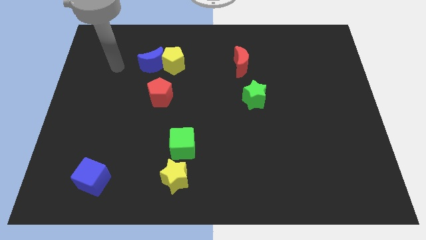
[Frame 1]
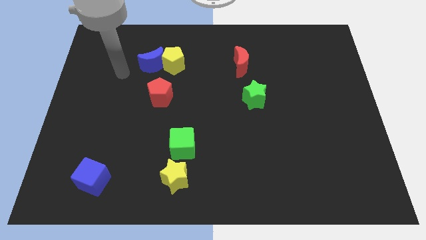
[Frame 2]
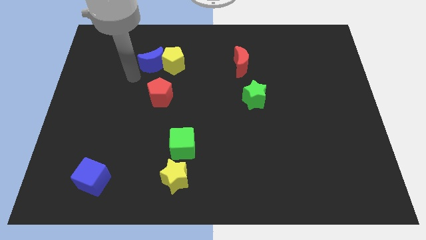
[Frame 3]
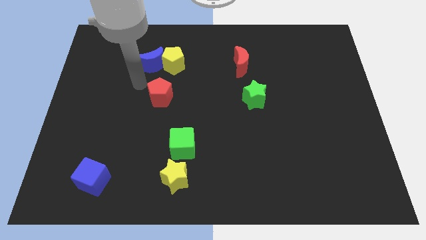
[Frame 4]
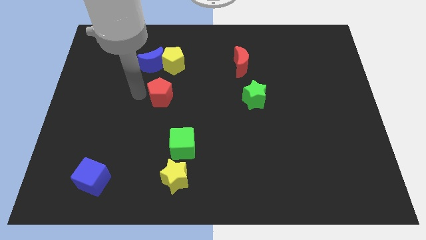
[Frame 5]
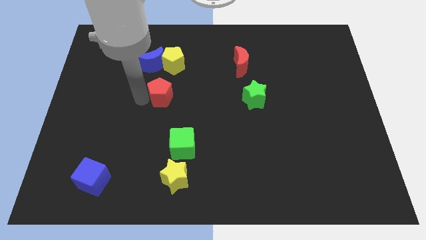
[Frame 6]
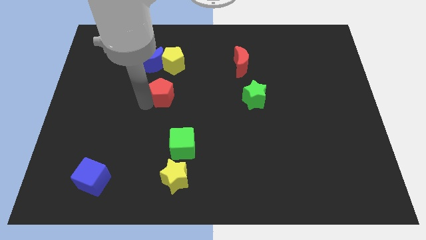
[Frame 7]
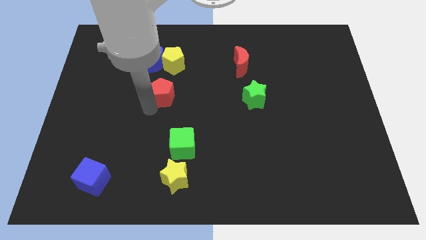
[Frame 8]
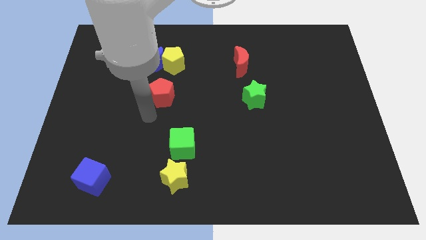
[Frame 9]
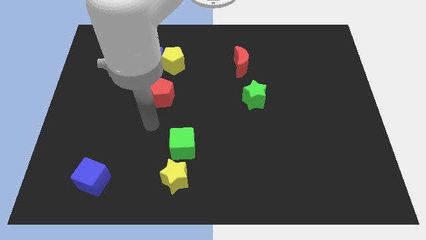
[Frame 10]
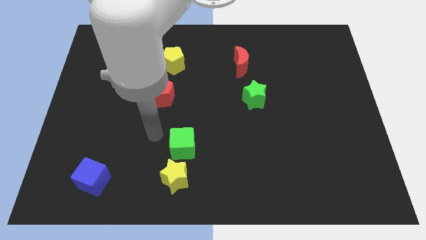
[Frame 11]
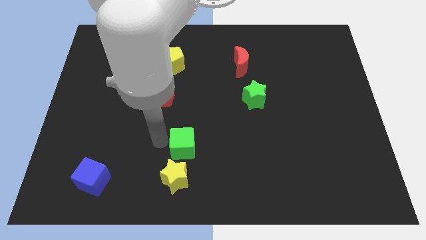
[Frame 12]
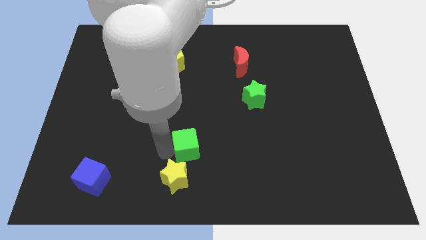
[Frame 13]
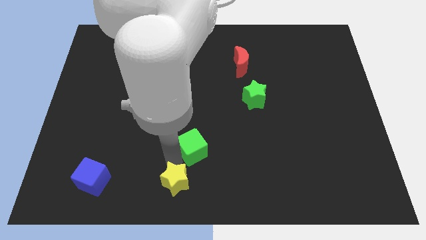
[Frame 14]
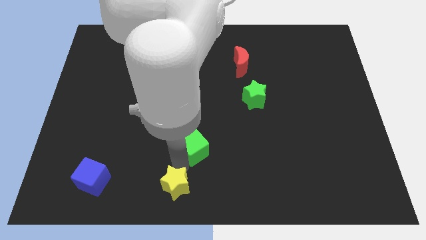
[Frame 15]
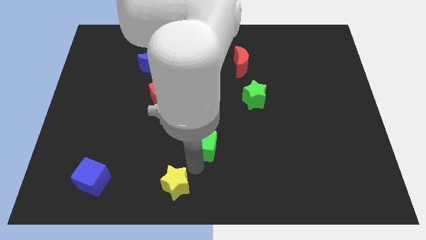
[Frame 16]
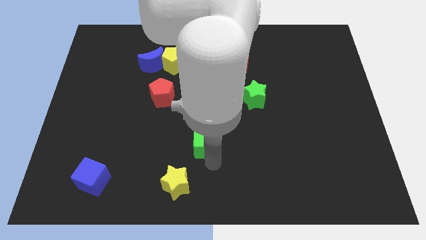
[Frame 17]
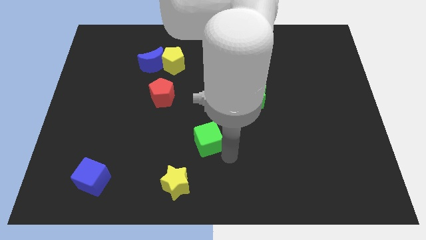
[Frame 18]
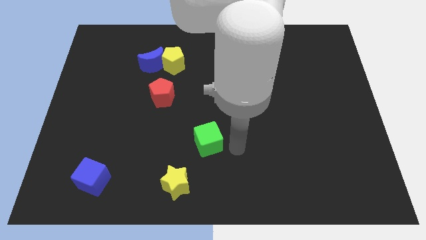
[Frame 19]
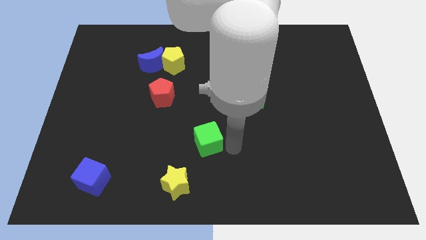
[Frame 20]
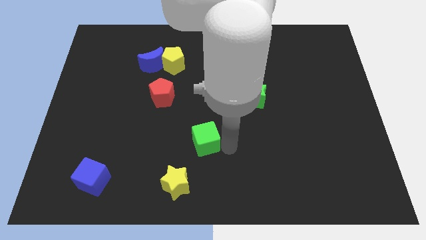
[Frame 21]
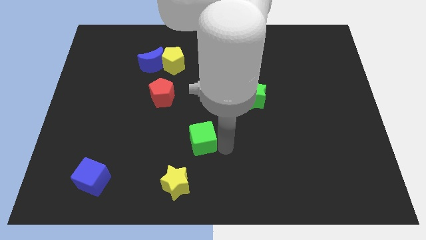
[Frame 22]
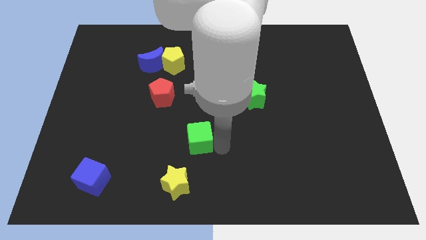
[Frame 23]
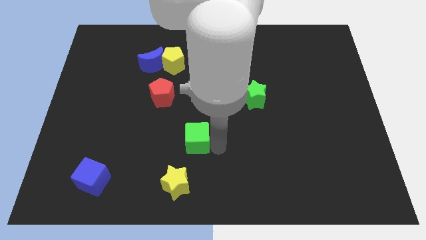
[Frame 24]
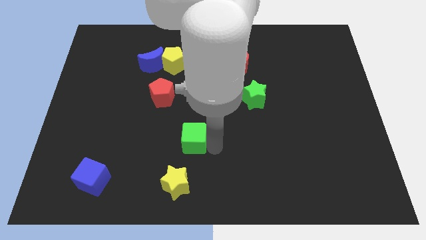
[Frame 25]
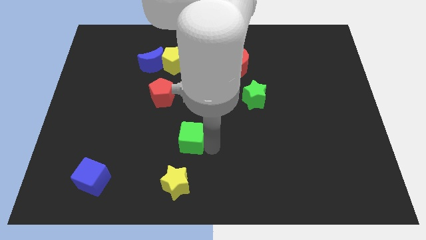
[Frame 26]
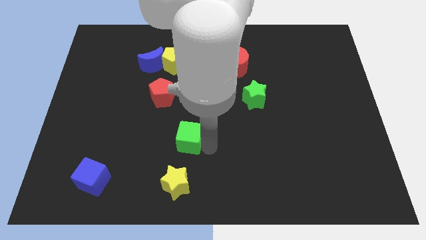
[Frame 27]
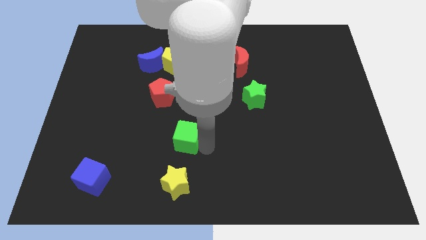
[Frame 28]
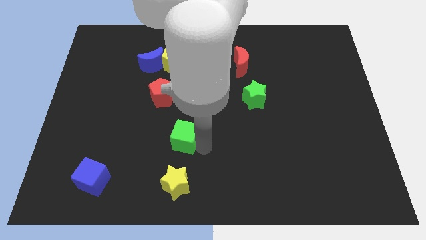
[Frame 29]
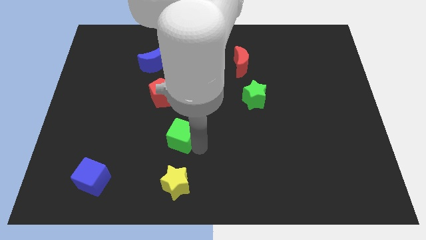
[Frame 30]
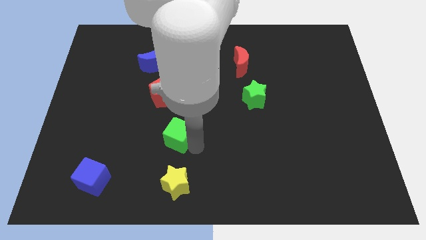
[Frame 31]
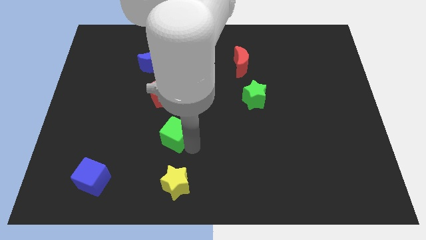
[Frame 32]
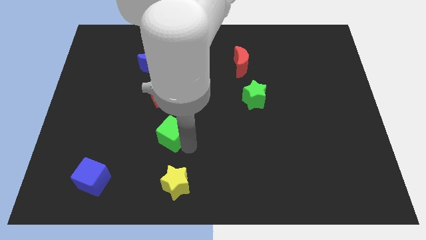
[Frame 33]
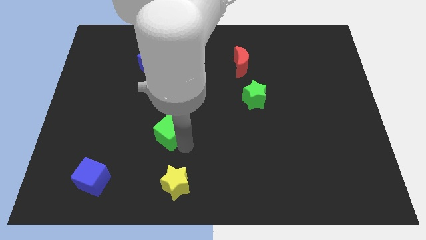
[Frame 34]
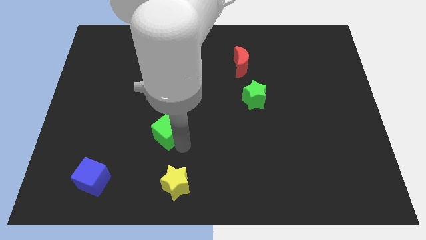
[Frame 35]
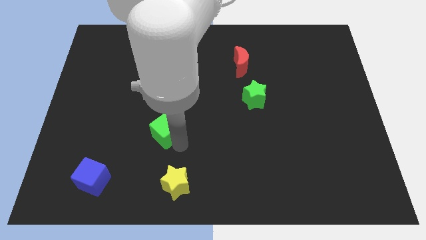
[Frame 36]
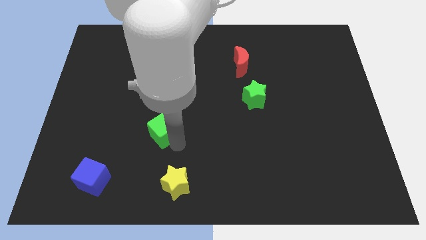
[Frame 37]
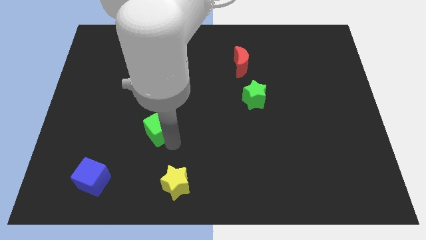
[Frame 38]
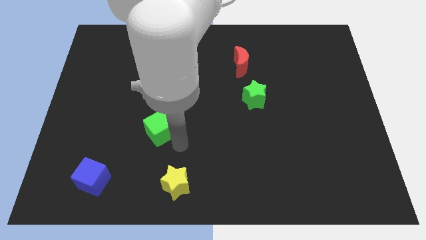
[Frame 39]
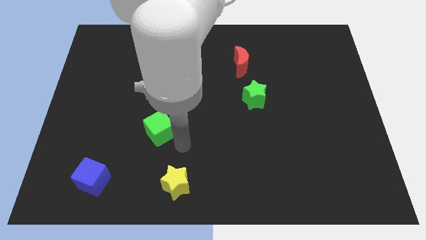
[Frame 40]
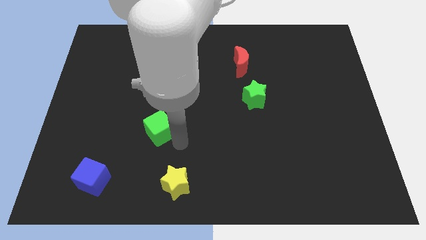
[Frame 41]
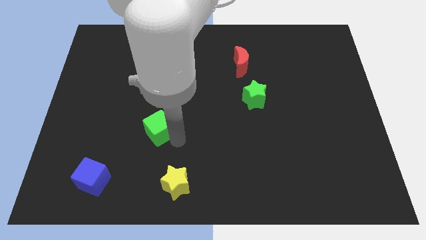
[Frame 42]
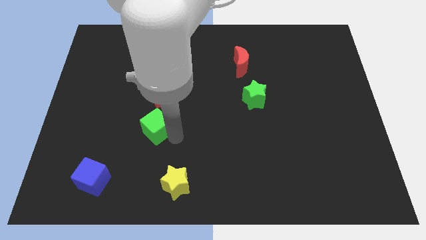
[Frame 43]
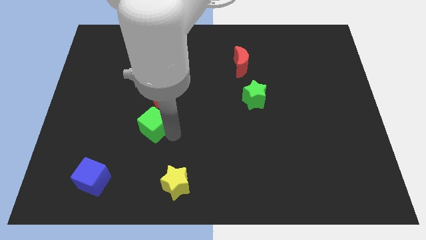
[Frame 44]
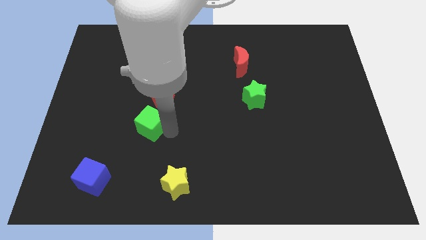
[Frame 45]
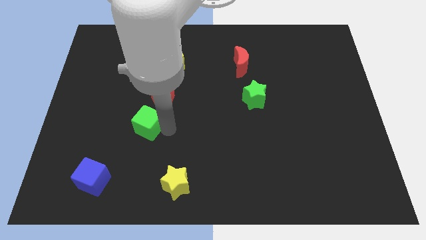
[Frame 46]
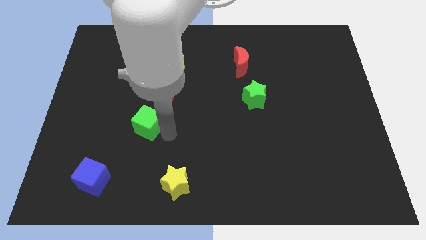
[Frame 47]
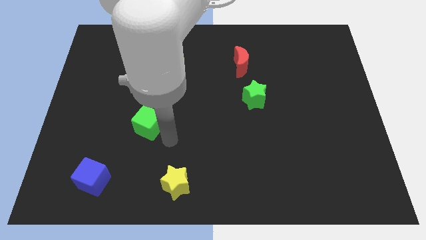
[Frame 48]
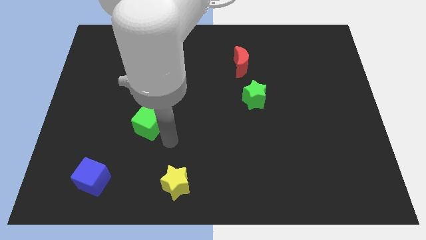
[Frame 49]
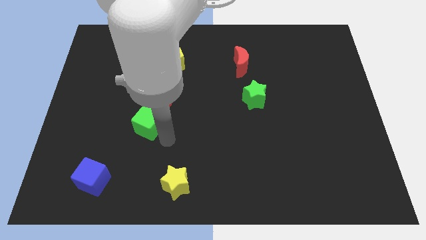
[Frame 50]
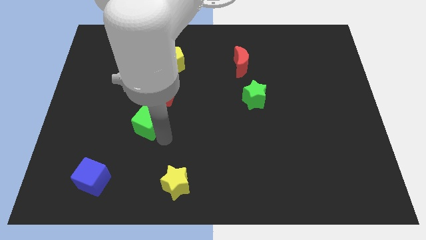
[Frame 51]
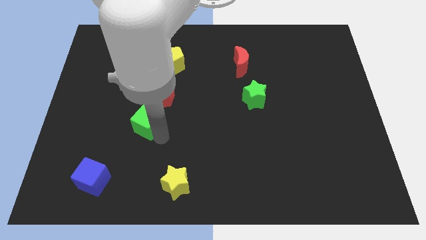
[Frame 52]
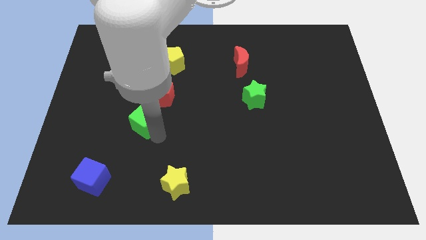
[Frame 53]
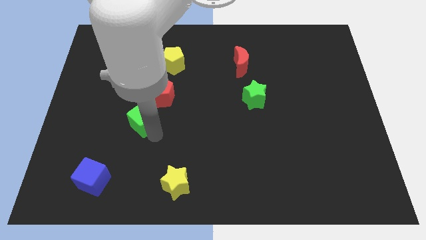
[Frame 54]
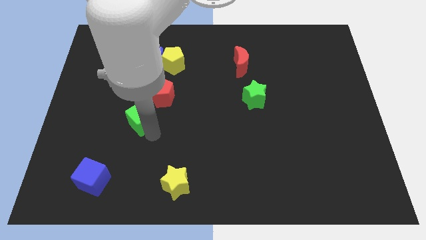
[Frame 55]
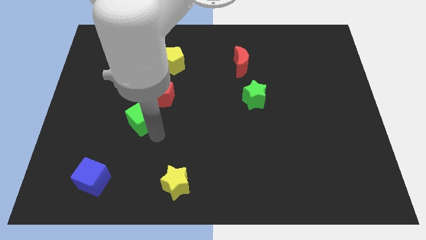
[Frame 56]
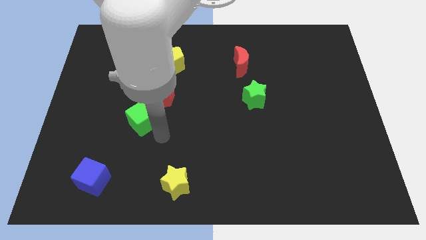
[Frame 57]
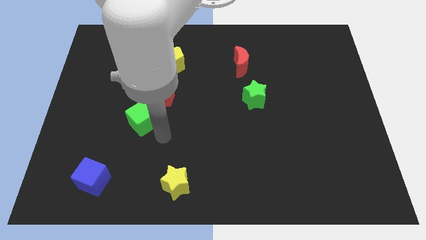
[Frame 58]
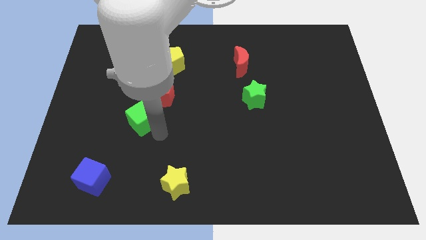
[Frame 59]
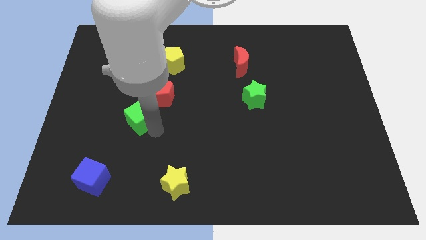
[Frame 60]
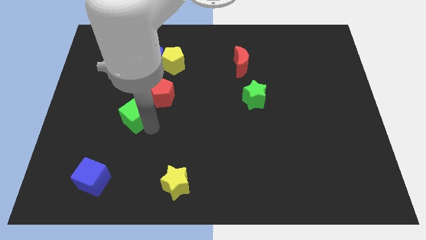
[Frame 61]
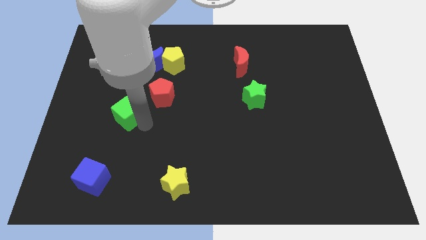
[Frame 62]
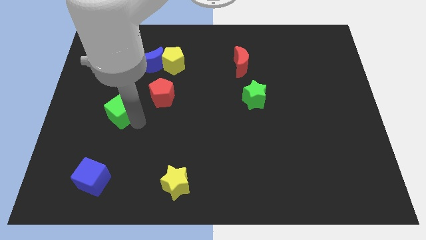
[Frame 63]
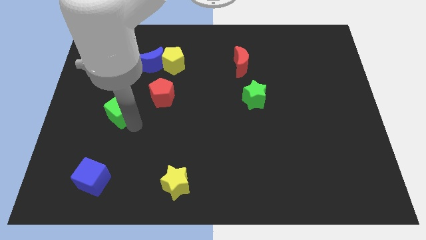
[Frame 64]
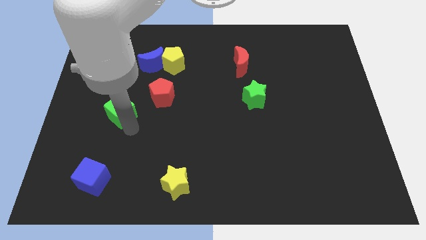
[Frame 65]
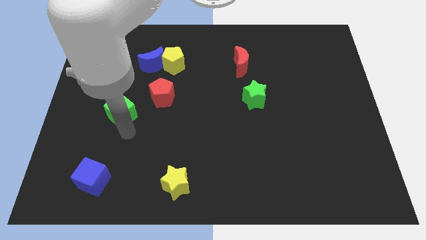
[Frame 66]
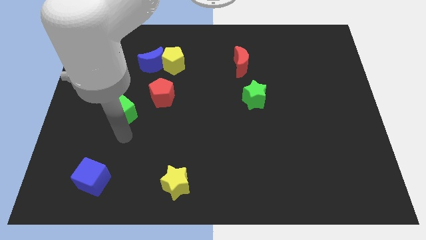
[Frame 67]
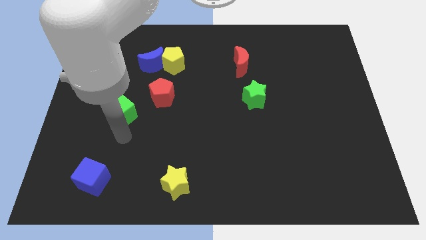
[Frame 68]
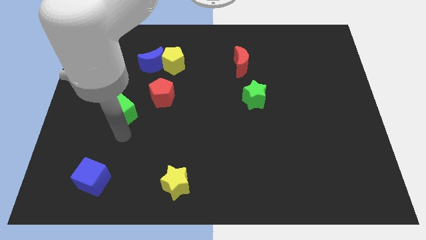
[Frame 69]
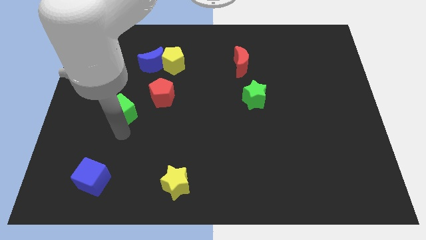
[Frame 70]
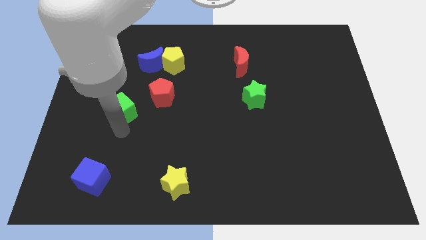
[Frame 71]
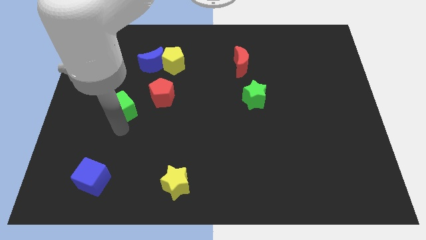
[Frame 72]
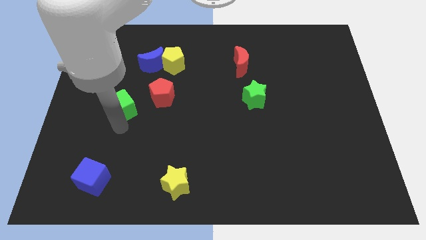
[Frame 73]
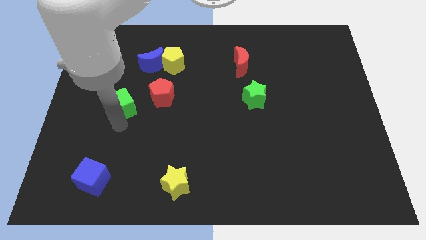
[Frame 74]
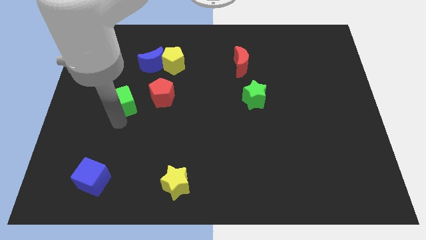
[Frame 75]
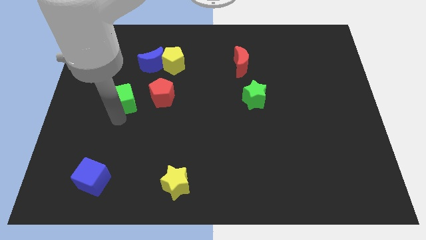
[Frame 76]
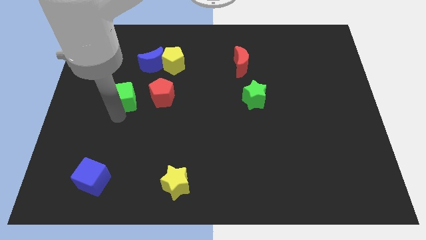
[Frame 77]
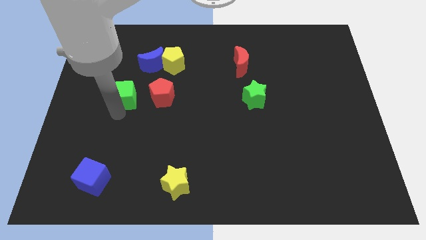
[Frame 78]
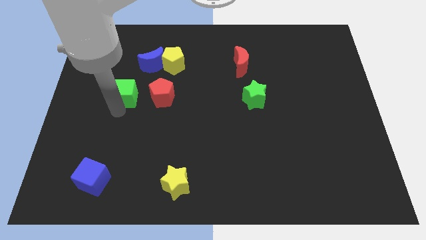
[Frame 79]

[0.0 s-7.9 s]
push the green cube diagonally down and to the left of the blue moon
